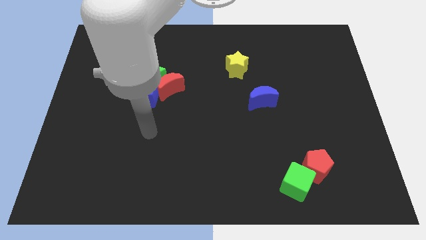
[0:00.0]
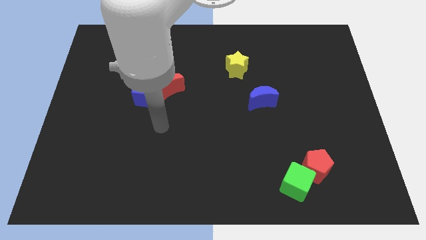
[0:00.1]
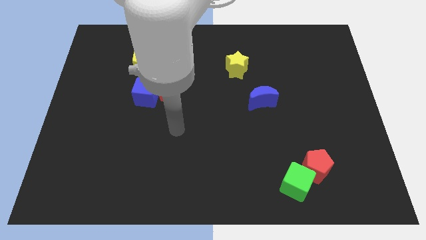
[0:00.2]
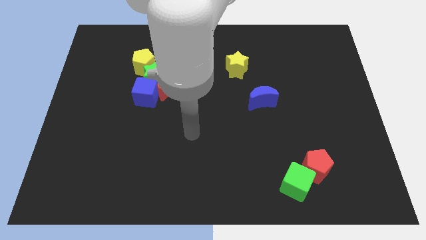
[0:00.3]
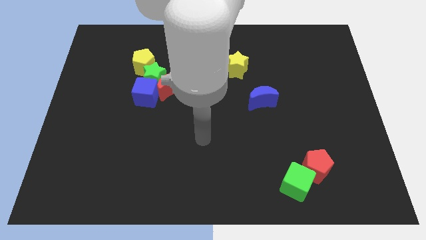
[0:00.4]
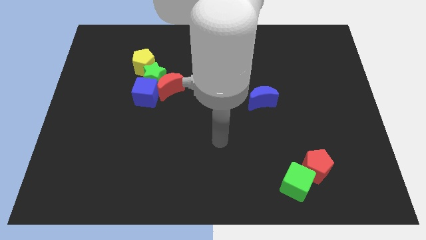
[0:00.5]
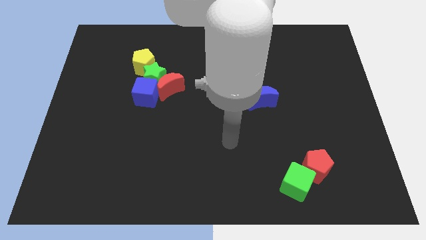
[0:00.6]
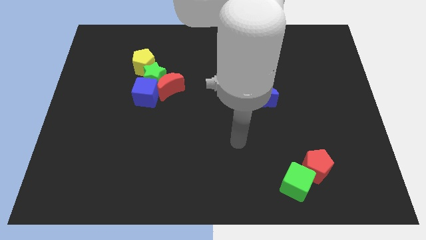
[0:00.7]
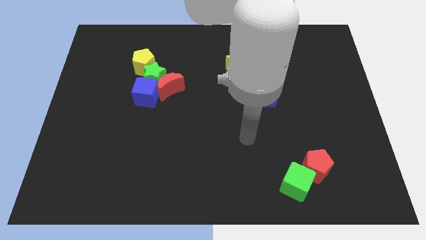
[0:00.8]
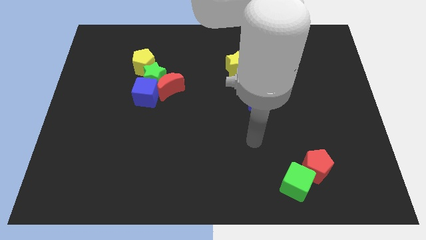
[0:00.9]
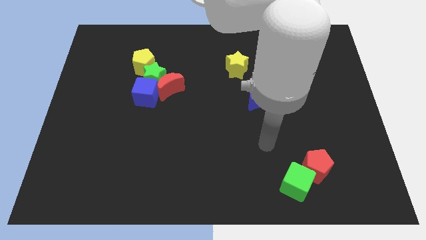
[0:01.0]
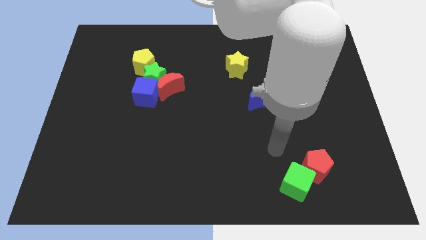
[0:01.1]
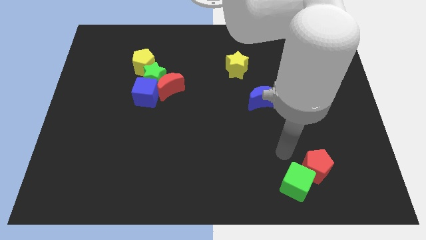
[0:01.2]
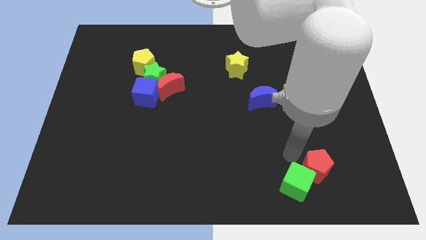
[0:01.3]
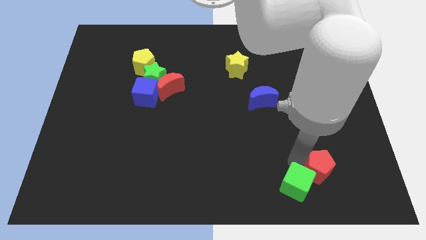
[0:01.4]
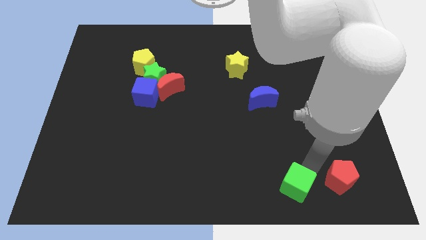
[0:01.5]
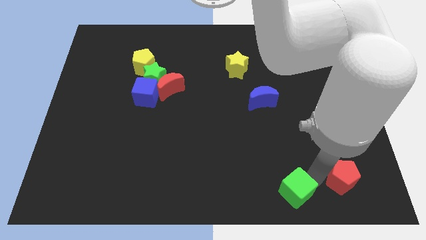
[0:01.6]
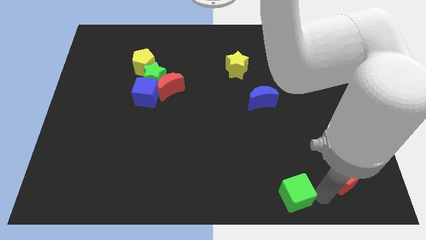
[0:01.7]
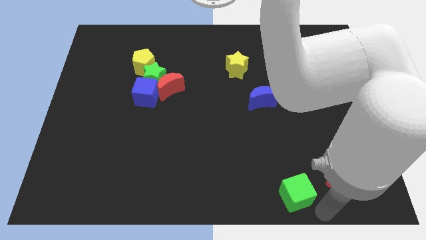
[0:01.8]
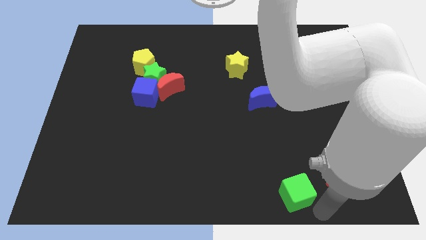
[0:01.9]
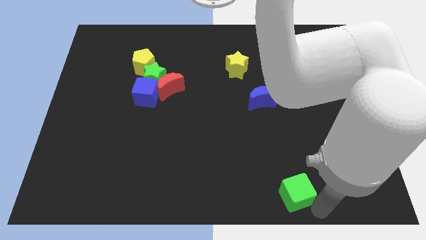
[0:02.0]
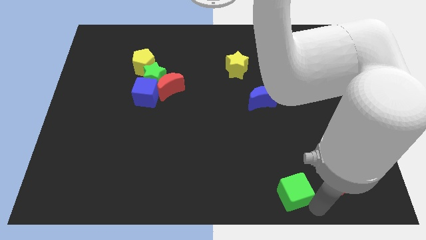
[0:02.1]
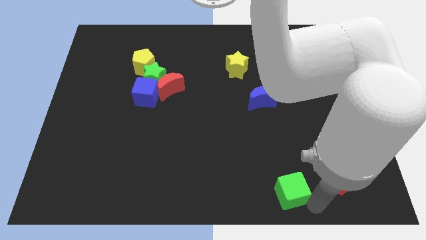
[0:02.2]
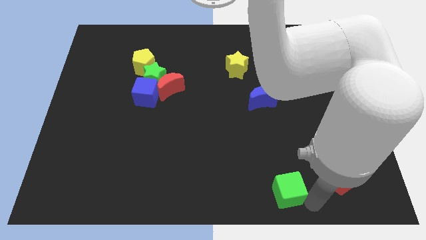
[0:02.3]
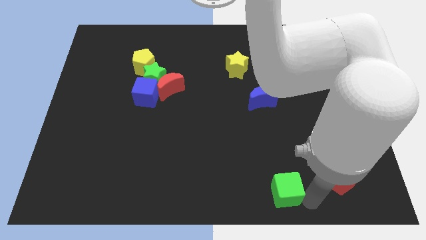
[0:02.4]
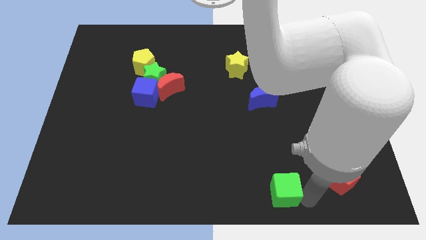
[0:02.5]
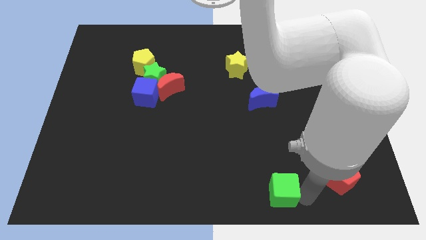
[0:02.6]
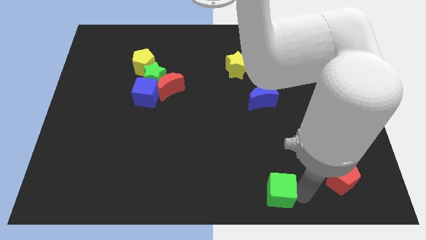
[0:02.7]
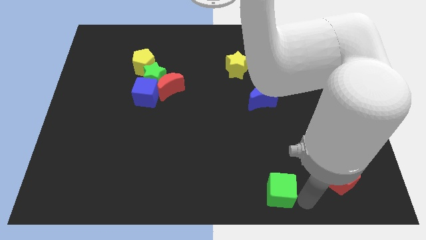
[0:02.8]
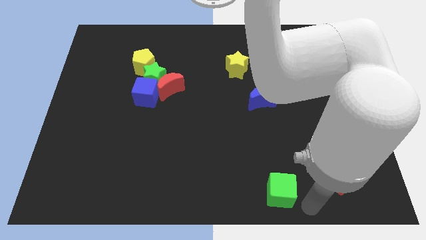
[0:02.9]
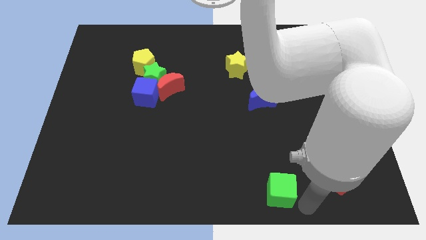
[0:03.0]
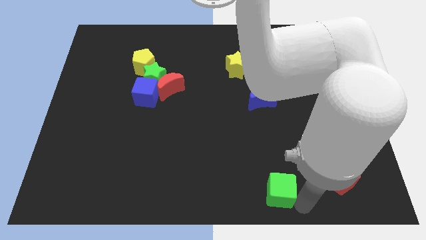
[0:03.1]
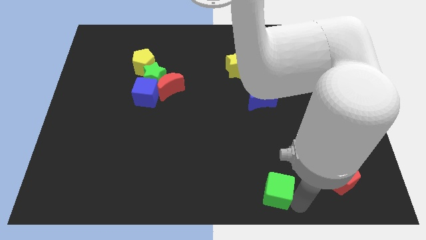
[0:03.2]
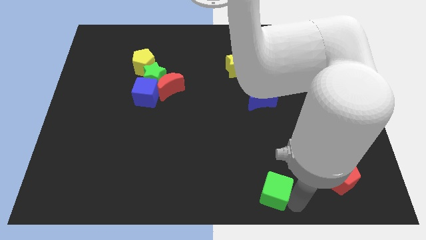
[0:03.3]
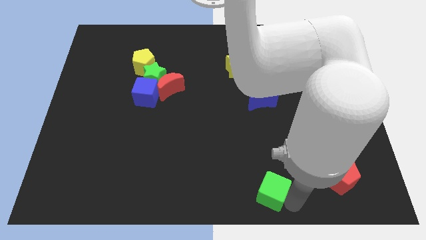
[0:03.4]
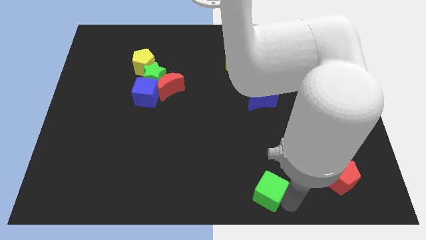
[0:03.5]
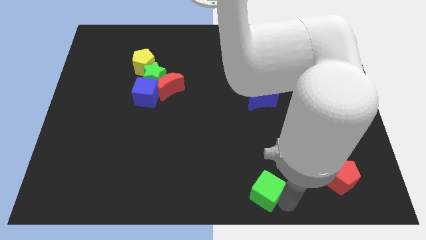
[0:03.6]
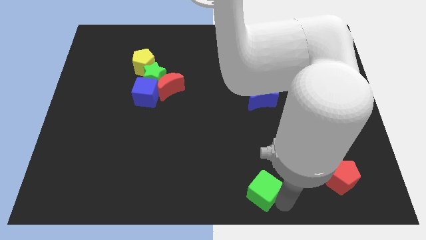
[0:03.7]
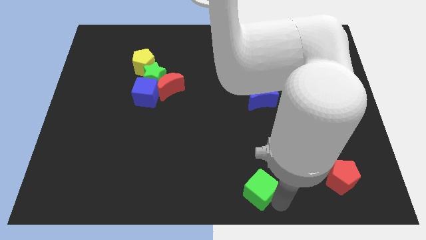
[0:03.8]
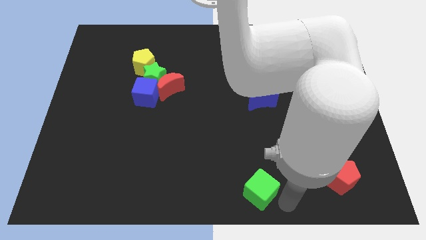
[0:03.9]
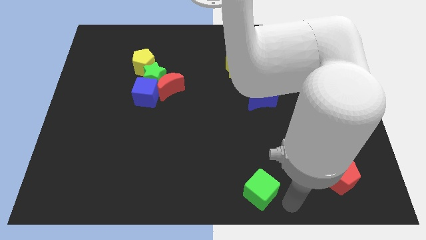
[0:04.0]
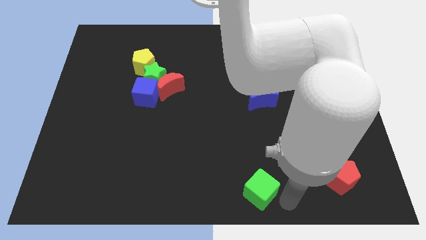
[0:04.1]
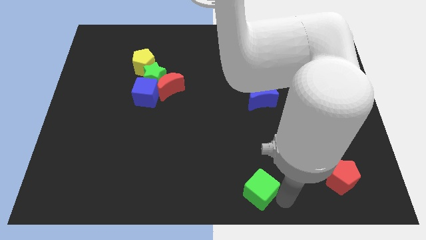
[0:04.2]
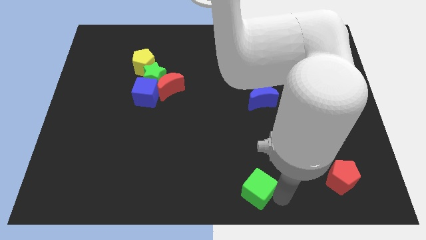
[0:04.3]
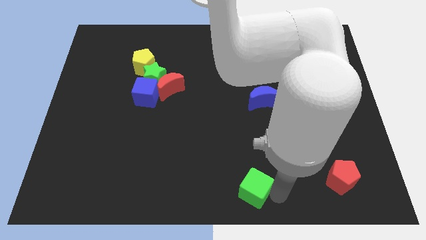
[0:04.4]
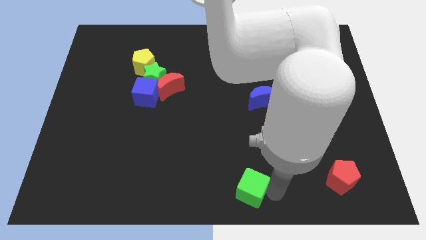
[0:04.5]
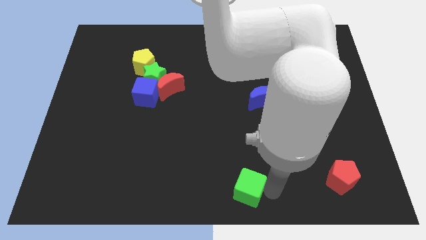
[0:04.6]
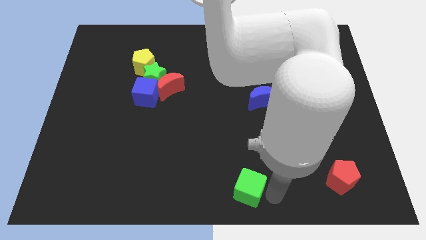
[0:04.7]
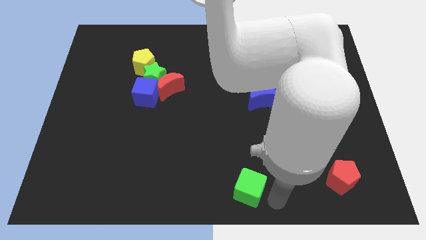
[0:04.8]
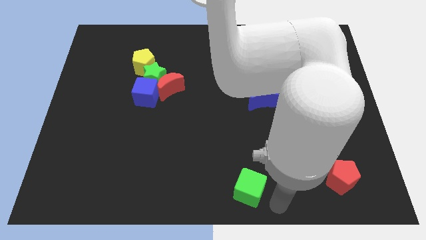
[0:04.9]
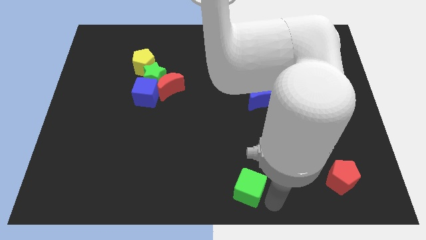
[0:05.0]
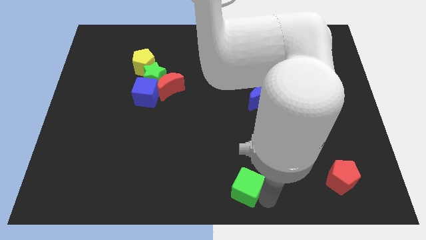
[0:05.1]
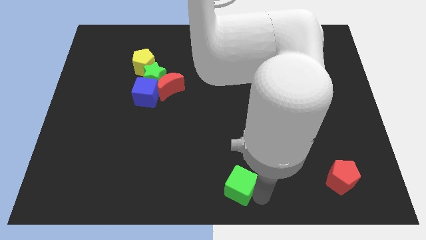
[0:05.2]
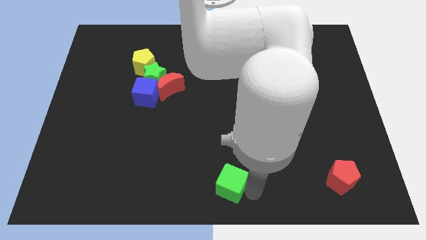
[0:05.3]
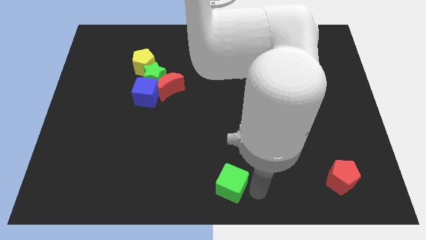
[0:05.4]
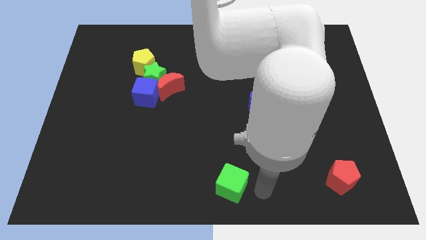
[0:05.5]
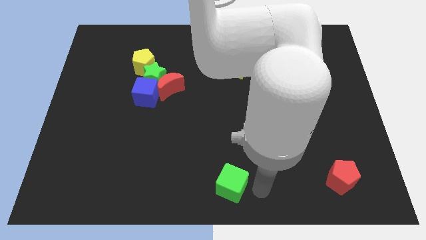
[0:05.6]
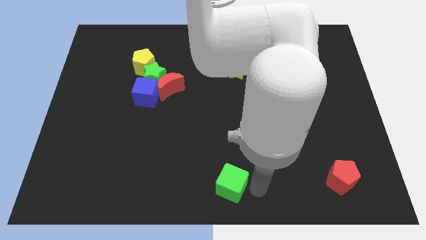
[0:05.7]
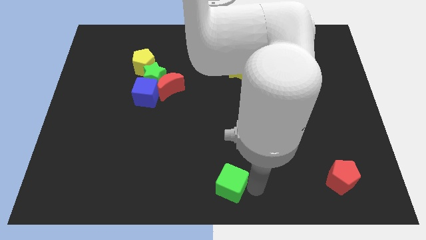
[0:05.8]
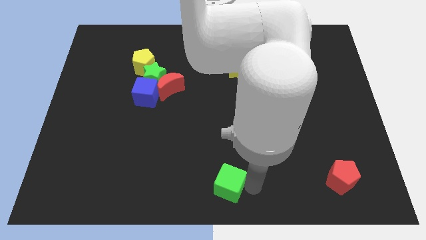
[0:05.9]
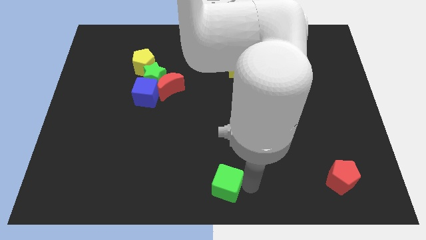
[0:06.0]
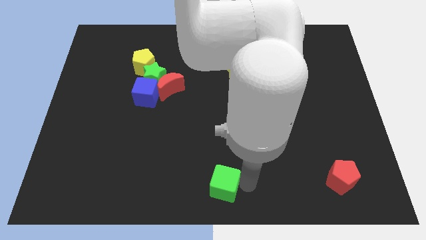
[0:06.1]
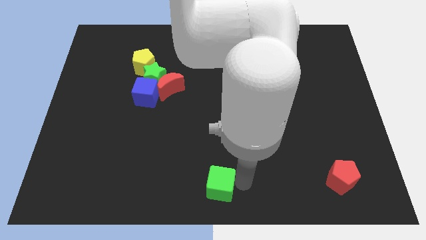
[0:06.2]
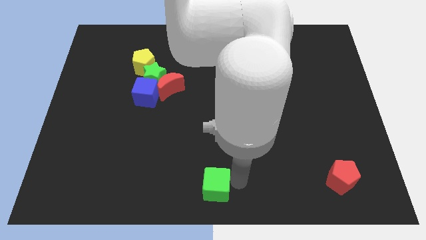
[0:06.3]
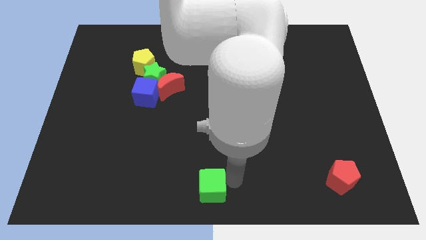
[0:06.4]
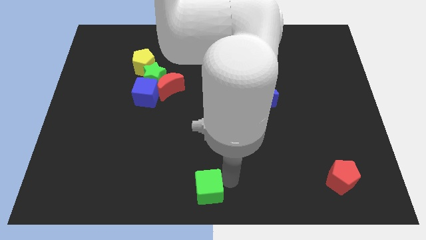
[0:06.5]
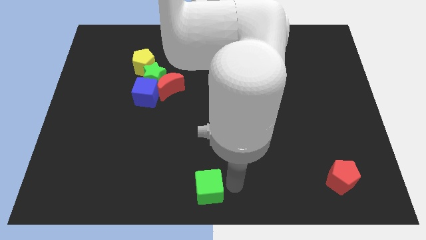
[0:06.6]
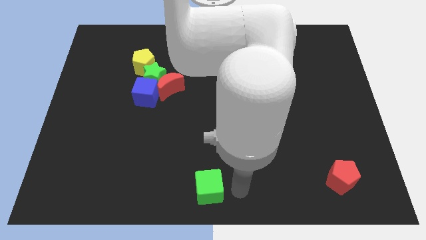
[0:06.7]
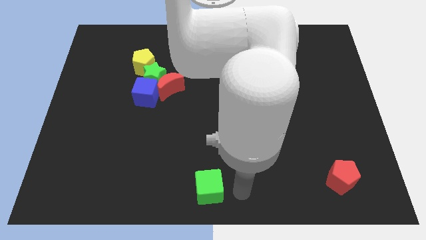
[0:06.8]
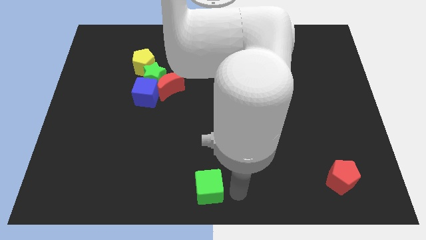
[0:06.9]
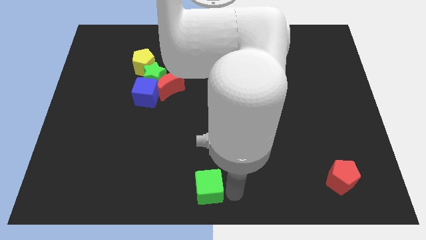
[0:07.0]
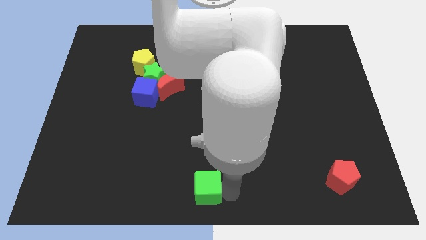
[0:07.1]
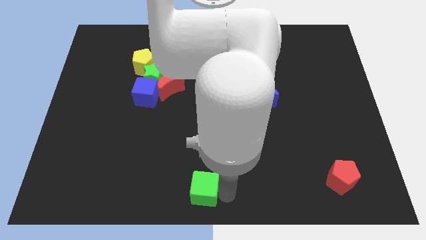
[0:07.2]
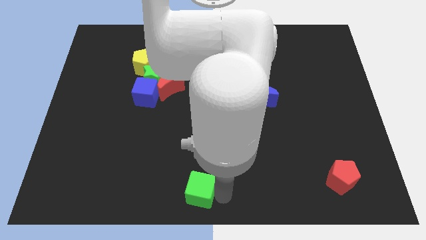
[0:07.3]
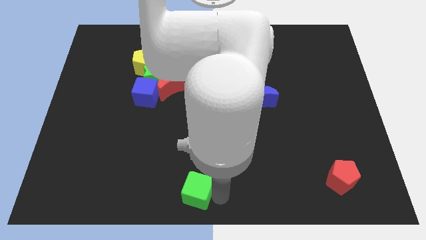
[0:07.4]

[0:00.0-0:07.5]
push the green cube to the left

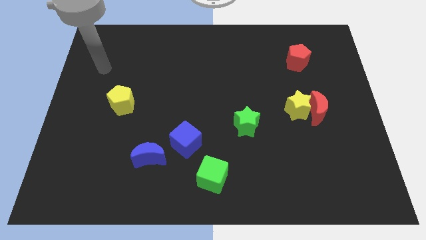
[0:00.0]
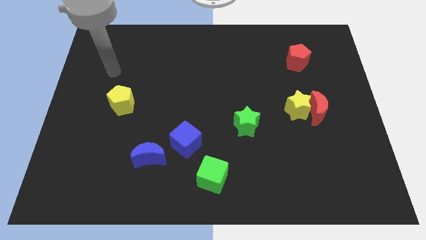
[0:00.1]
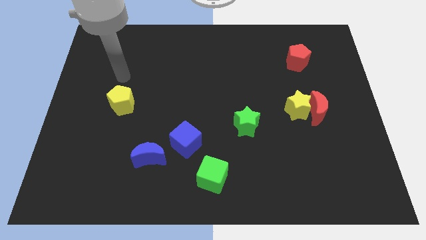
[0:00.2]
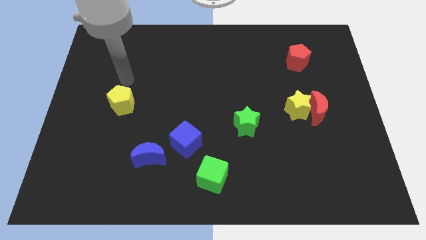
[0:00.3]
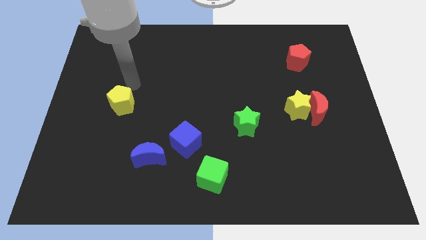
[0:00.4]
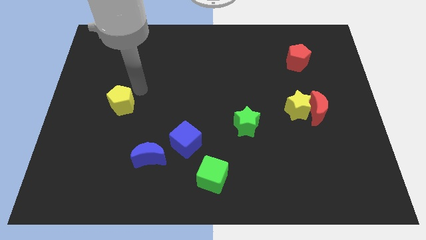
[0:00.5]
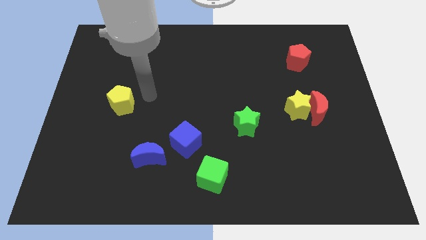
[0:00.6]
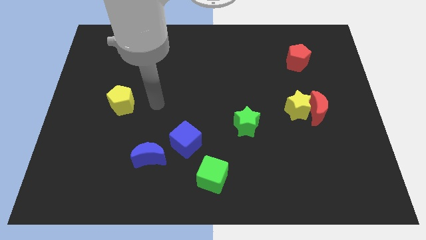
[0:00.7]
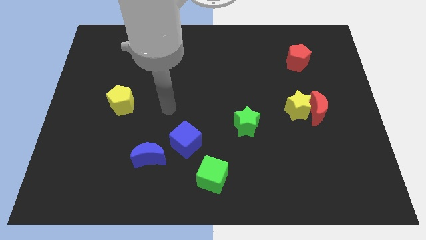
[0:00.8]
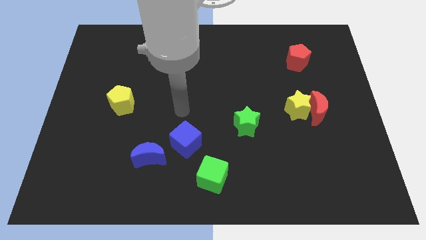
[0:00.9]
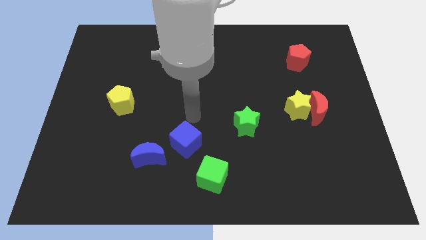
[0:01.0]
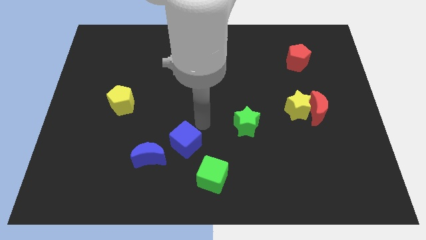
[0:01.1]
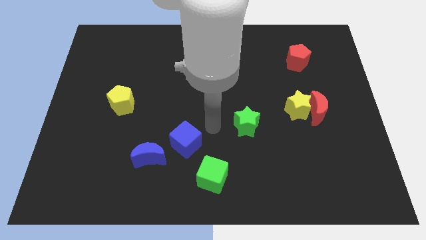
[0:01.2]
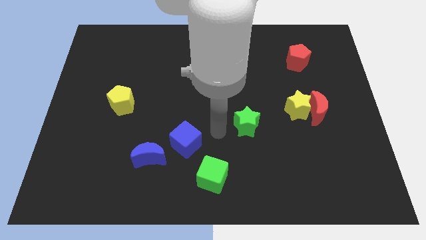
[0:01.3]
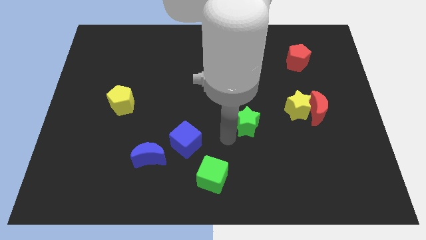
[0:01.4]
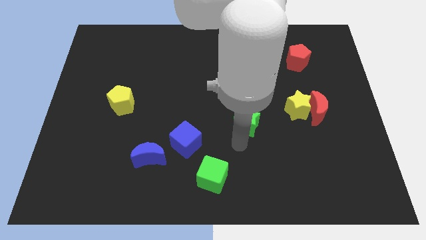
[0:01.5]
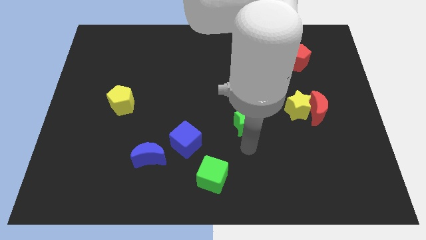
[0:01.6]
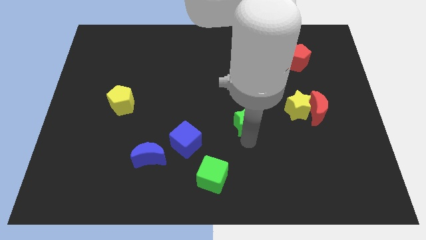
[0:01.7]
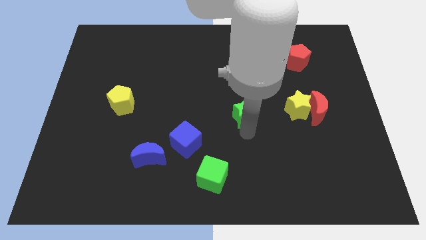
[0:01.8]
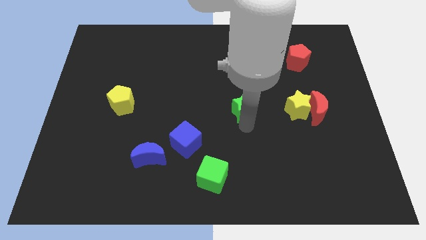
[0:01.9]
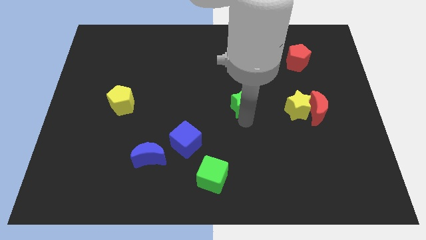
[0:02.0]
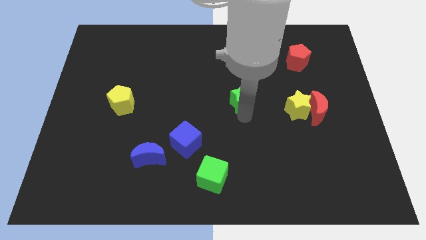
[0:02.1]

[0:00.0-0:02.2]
slide the green star upwards a bit
